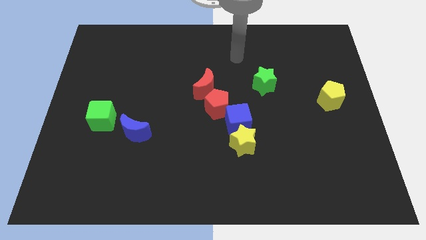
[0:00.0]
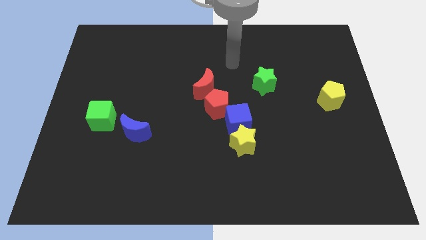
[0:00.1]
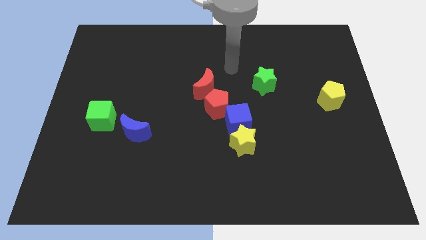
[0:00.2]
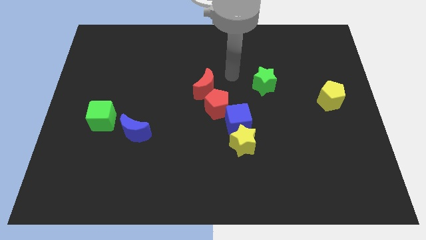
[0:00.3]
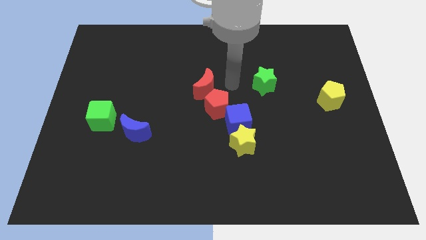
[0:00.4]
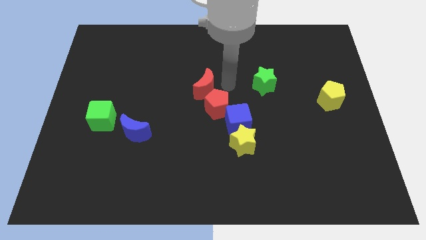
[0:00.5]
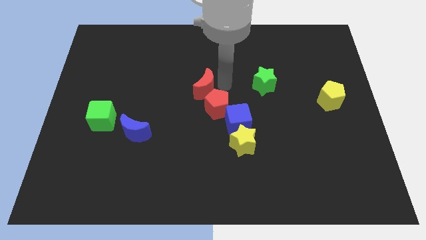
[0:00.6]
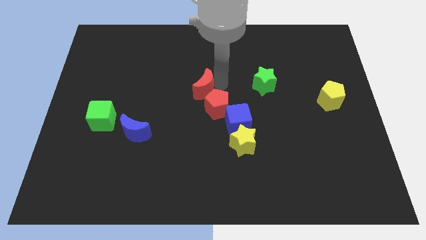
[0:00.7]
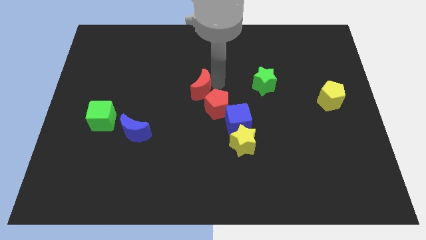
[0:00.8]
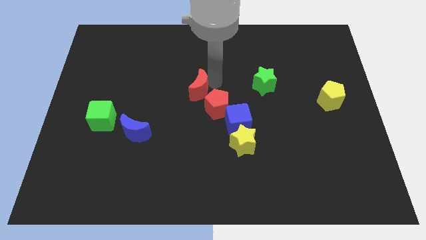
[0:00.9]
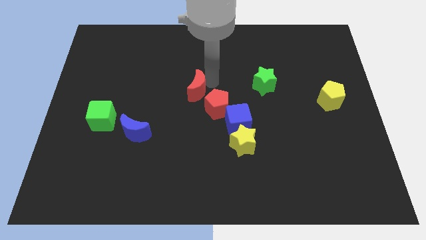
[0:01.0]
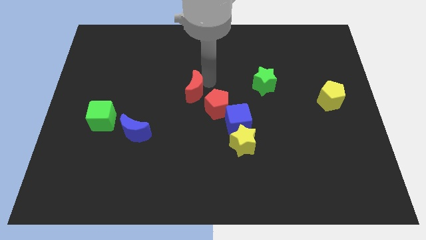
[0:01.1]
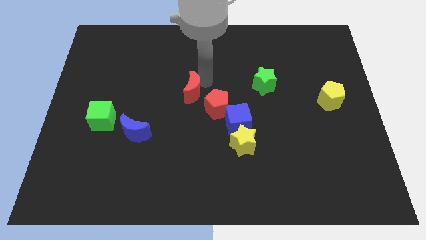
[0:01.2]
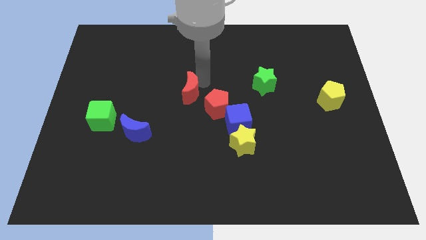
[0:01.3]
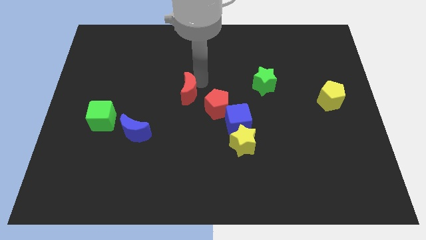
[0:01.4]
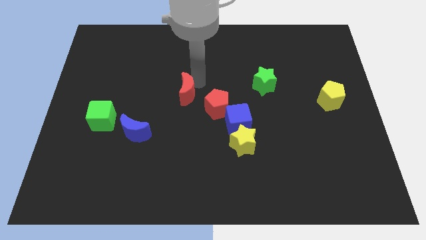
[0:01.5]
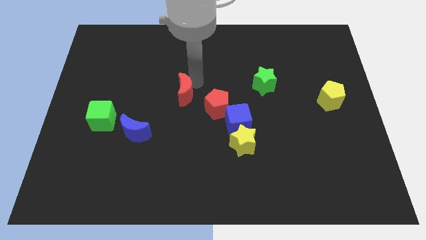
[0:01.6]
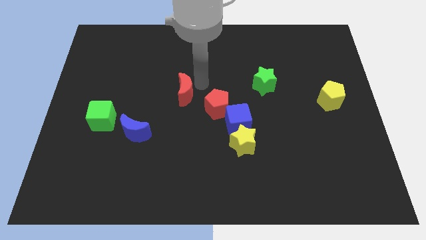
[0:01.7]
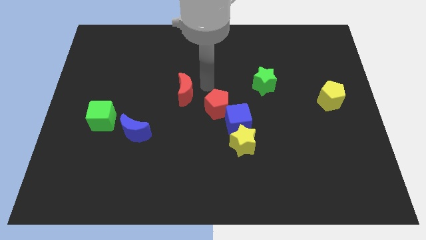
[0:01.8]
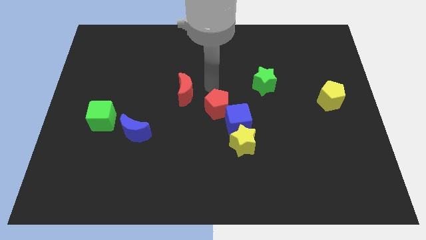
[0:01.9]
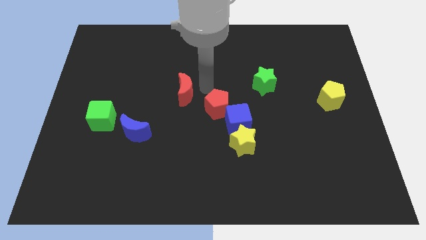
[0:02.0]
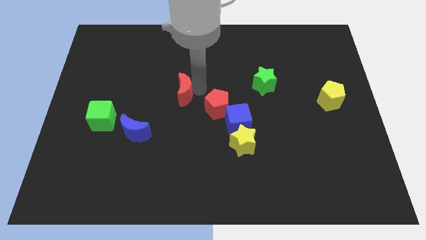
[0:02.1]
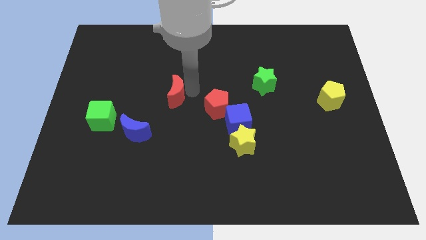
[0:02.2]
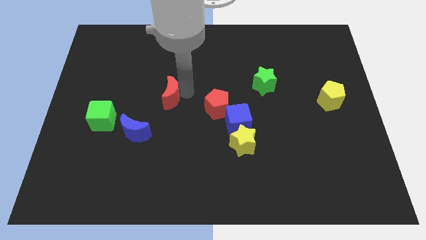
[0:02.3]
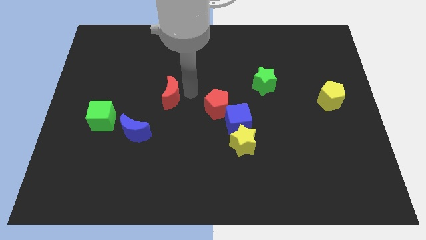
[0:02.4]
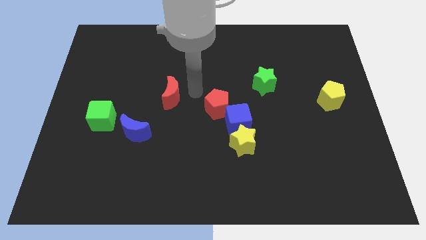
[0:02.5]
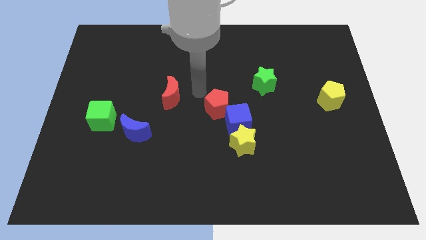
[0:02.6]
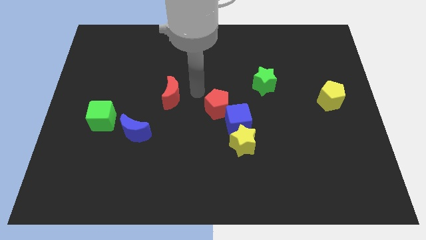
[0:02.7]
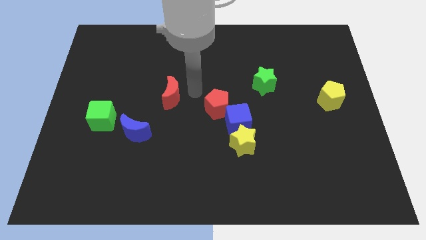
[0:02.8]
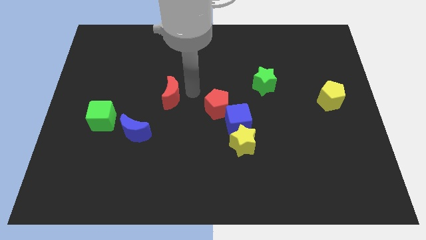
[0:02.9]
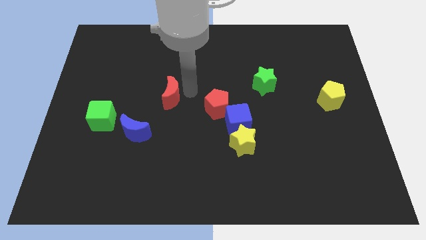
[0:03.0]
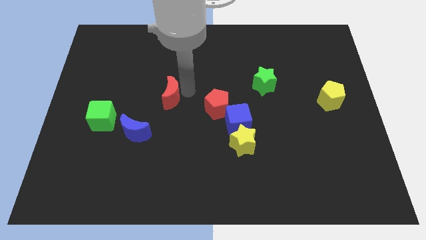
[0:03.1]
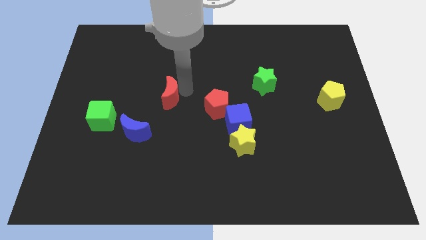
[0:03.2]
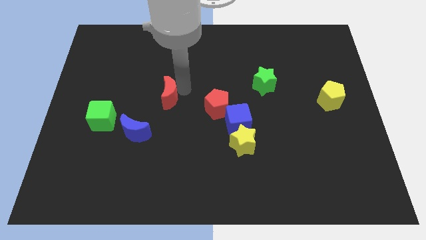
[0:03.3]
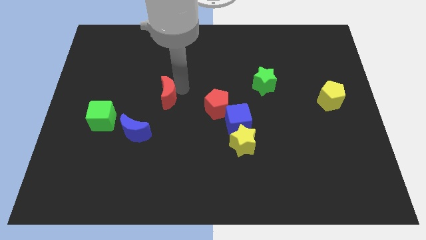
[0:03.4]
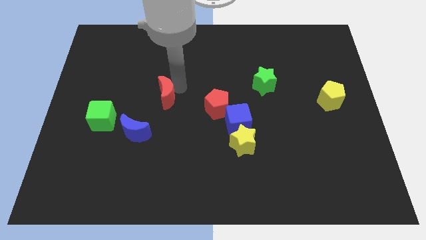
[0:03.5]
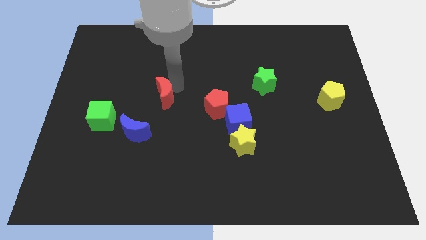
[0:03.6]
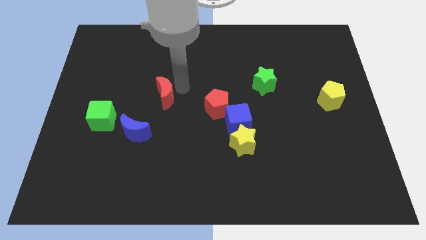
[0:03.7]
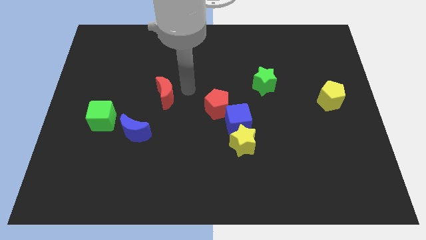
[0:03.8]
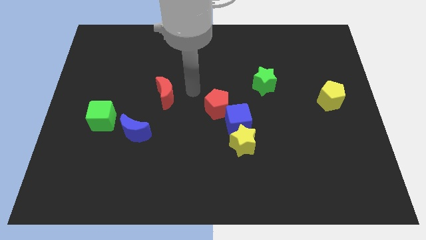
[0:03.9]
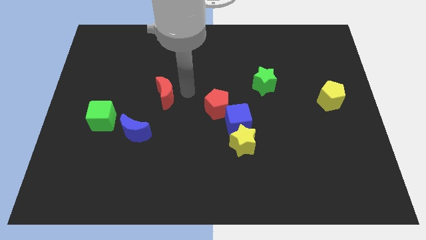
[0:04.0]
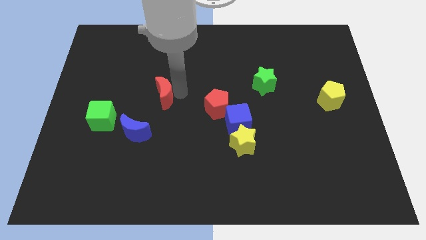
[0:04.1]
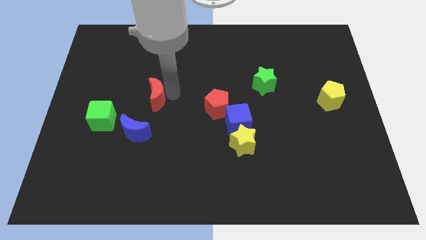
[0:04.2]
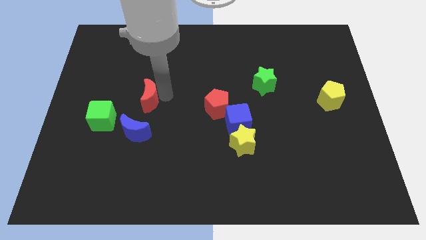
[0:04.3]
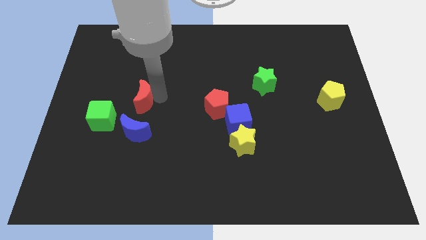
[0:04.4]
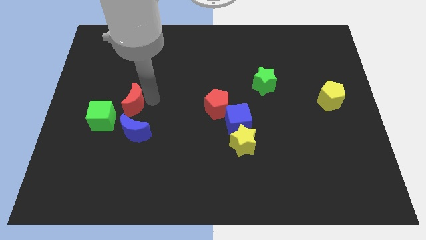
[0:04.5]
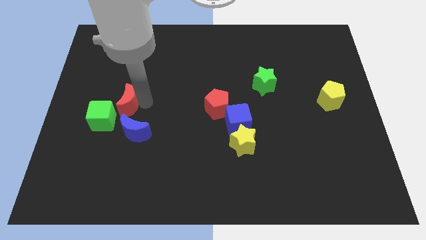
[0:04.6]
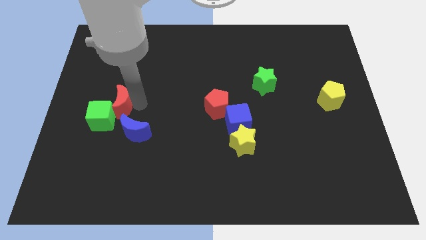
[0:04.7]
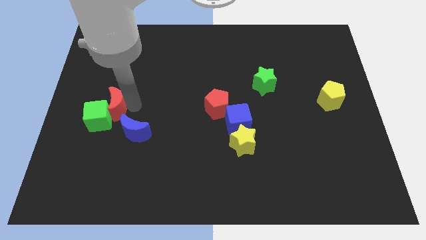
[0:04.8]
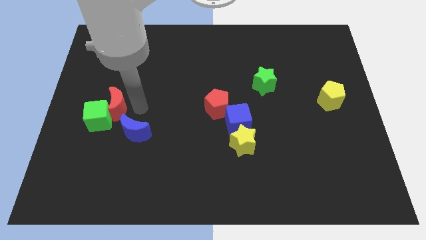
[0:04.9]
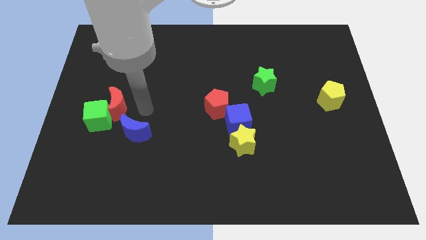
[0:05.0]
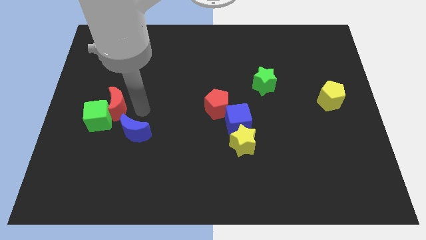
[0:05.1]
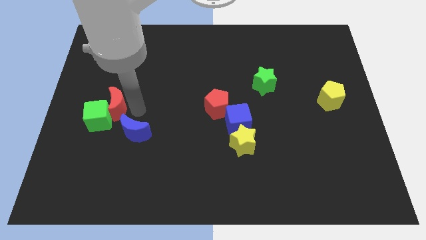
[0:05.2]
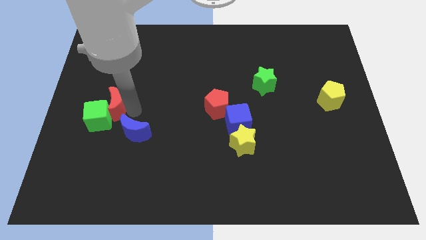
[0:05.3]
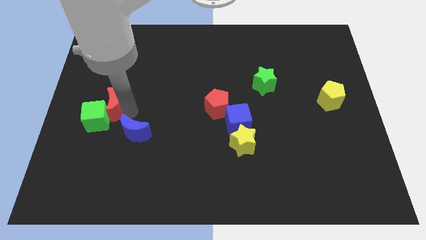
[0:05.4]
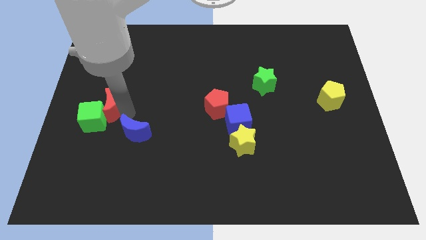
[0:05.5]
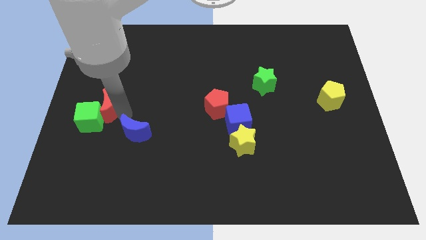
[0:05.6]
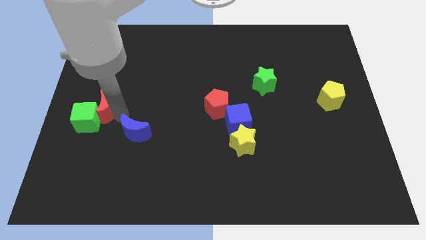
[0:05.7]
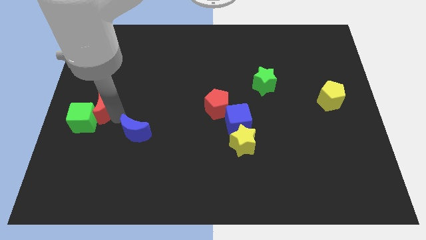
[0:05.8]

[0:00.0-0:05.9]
push the red moon to the center left

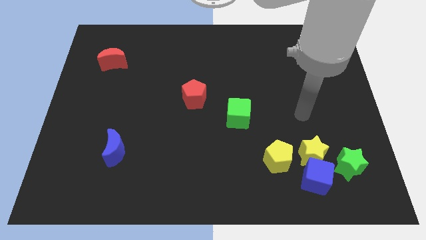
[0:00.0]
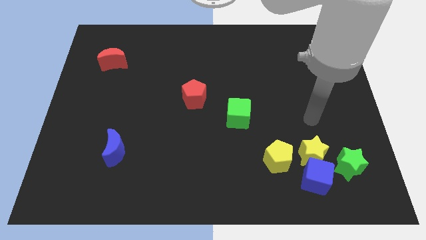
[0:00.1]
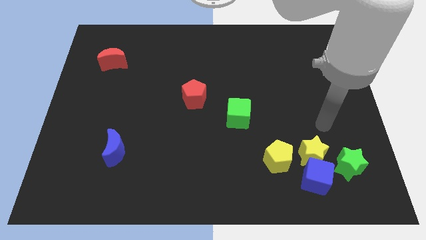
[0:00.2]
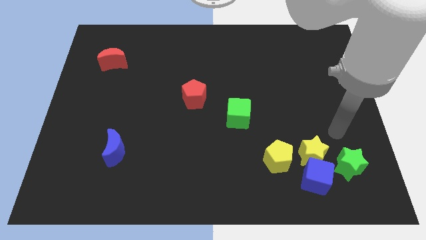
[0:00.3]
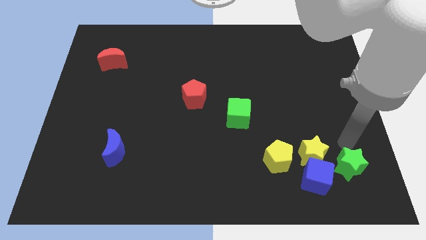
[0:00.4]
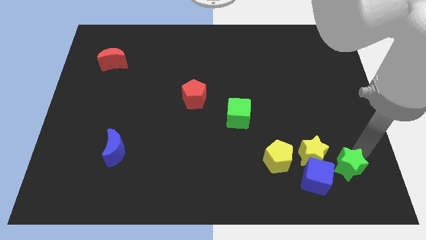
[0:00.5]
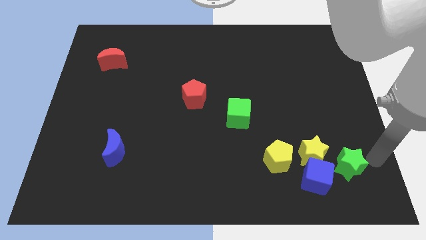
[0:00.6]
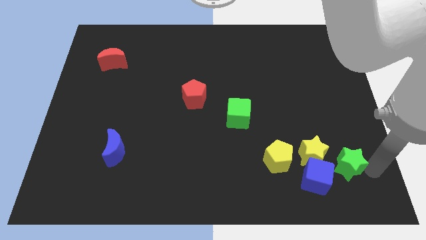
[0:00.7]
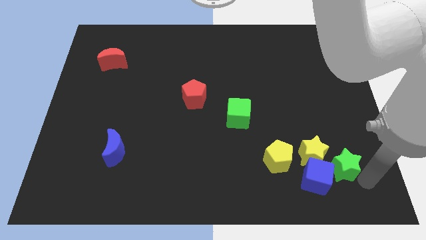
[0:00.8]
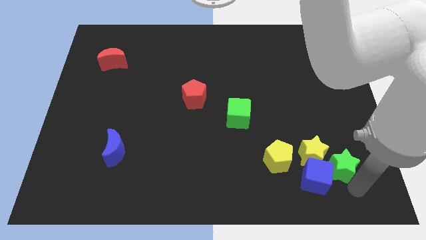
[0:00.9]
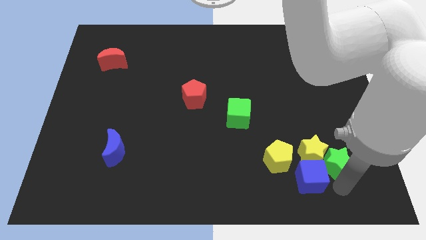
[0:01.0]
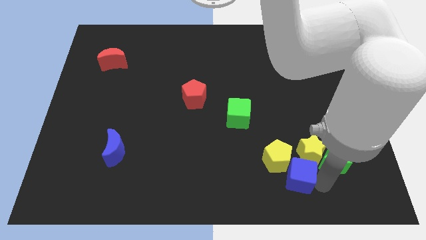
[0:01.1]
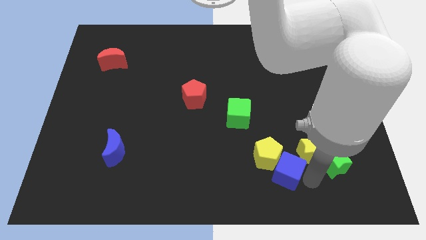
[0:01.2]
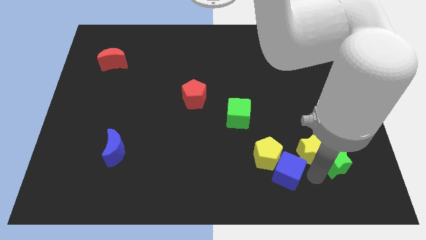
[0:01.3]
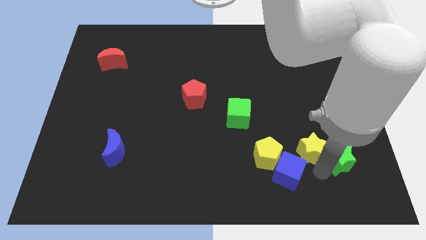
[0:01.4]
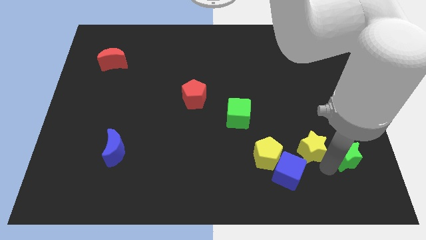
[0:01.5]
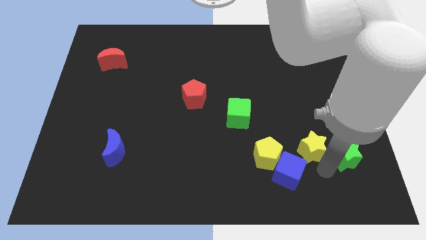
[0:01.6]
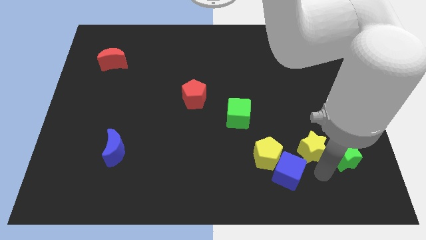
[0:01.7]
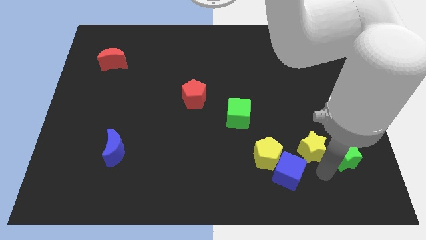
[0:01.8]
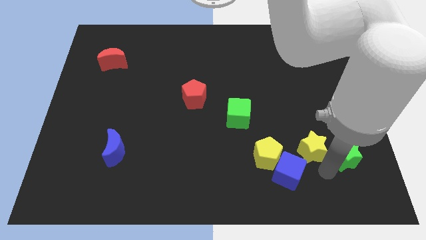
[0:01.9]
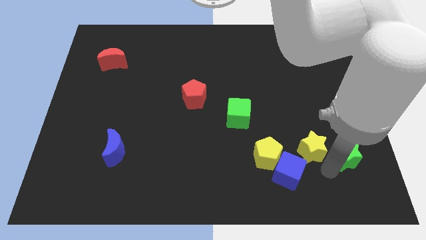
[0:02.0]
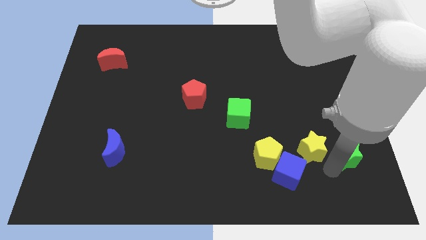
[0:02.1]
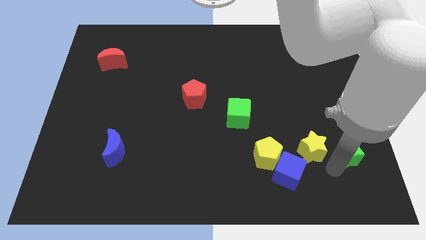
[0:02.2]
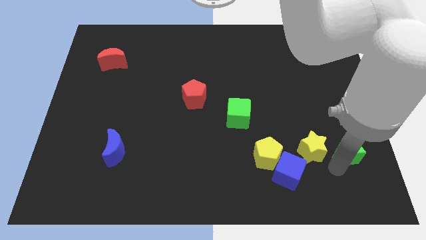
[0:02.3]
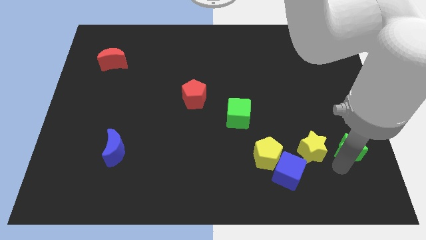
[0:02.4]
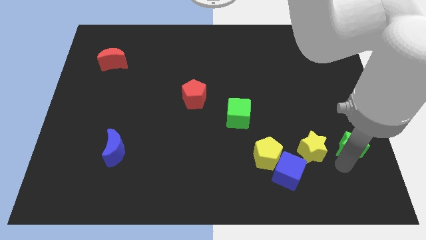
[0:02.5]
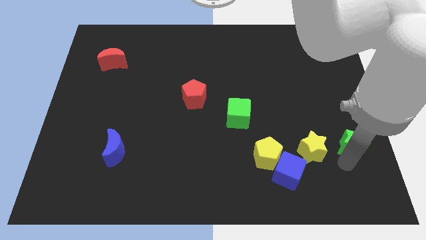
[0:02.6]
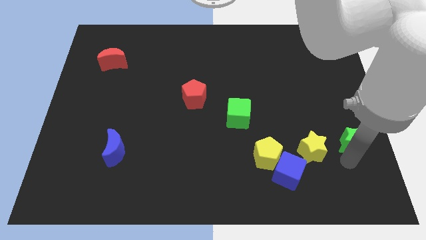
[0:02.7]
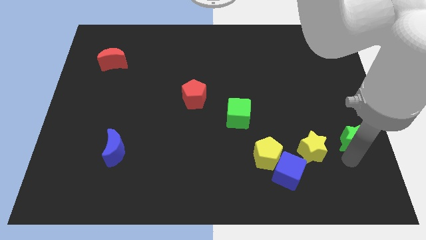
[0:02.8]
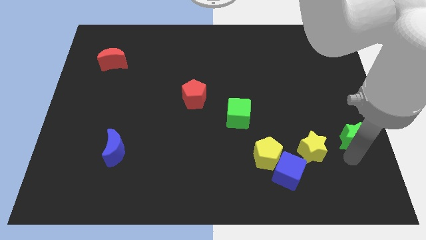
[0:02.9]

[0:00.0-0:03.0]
put the green star to the right side
